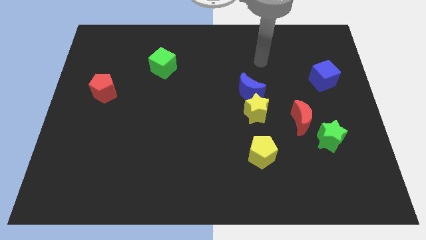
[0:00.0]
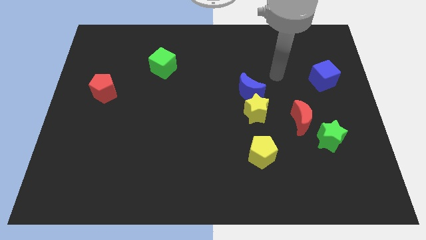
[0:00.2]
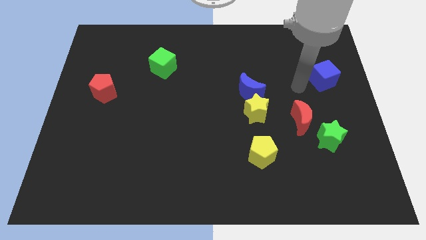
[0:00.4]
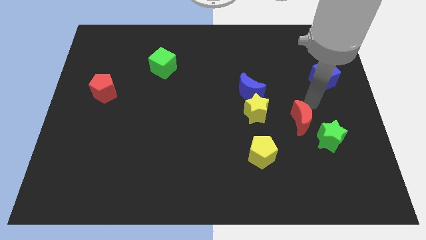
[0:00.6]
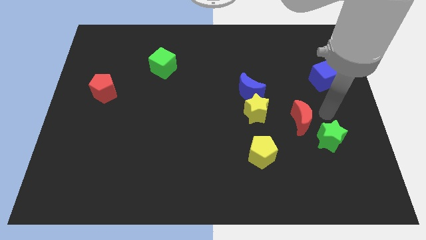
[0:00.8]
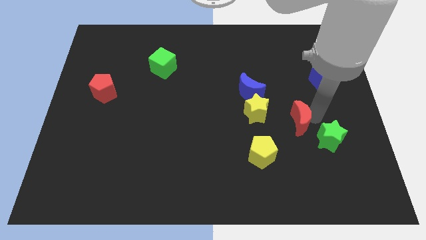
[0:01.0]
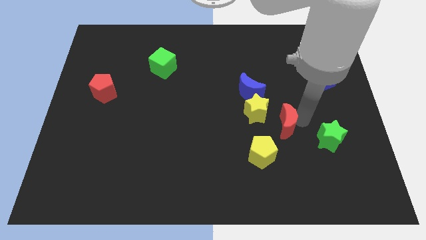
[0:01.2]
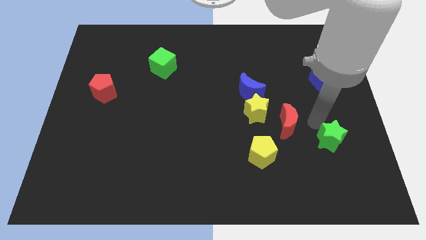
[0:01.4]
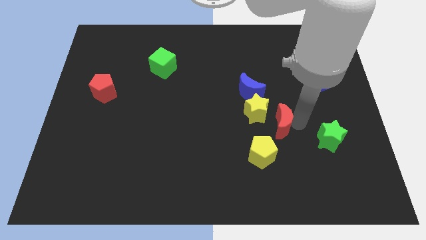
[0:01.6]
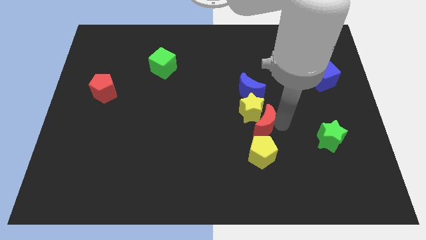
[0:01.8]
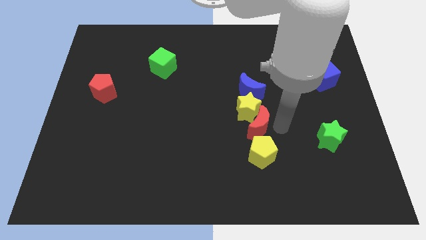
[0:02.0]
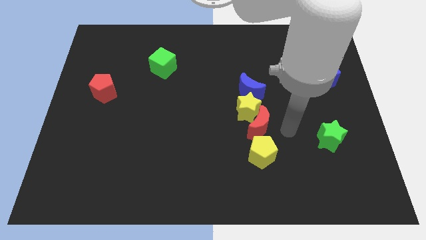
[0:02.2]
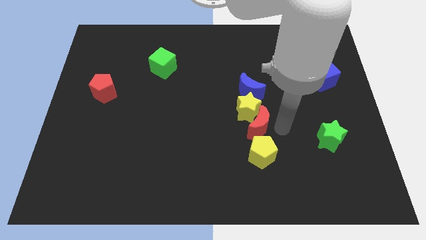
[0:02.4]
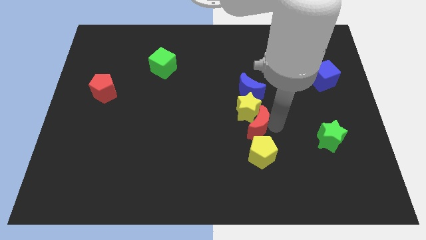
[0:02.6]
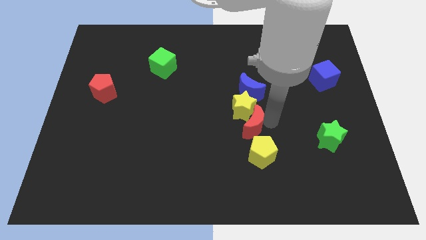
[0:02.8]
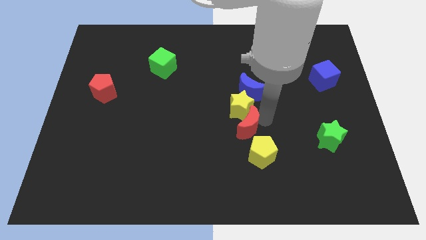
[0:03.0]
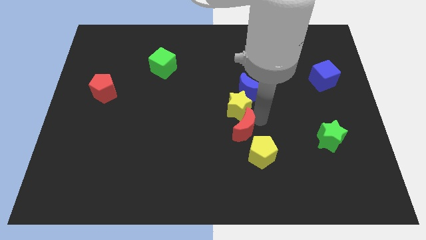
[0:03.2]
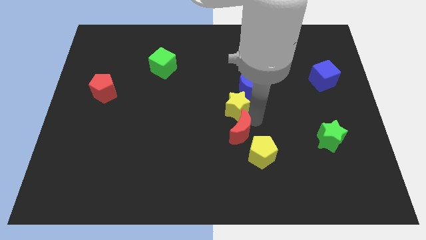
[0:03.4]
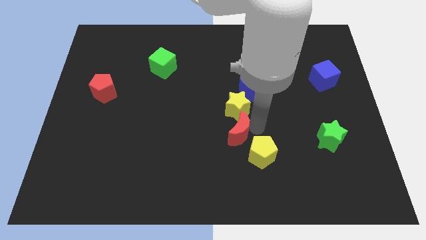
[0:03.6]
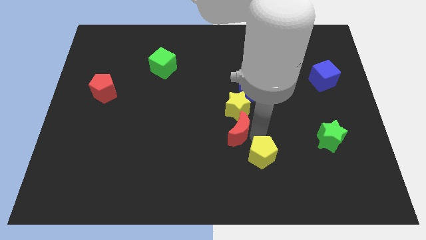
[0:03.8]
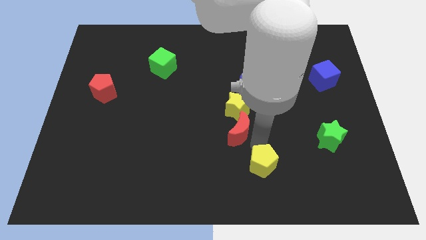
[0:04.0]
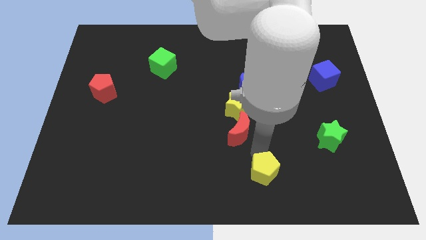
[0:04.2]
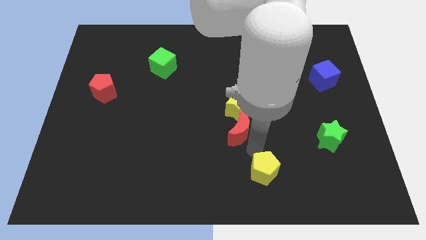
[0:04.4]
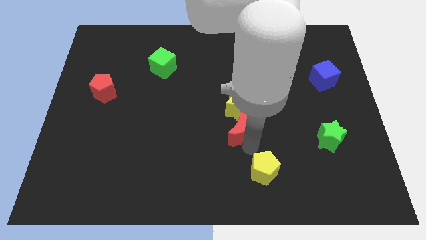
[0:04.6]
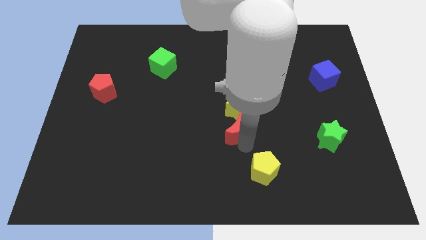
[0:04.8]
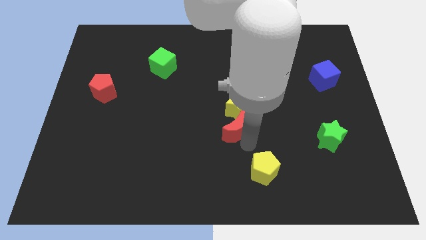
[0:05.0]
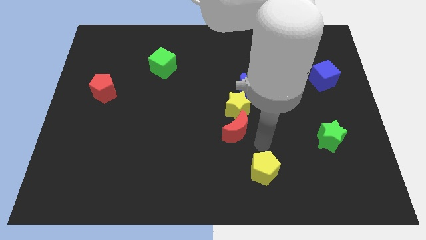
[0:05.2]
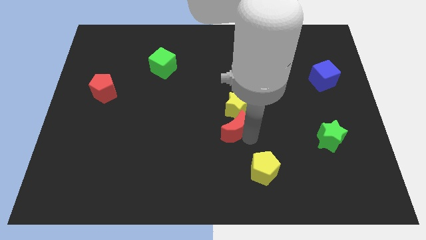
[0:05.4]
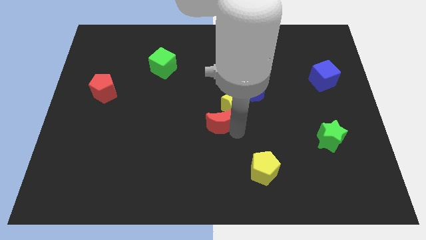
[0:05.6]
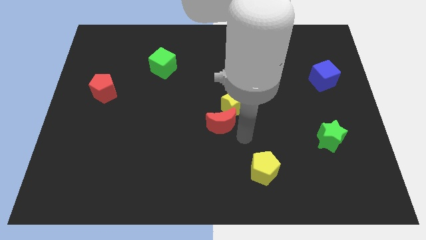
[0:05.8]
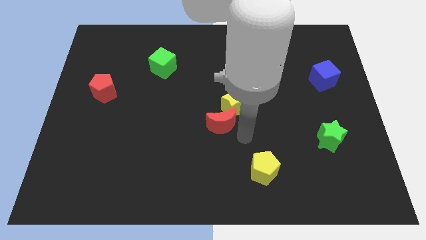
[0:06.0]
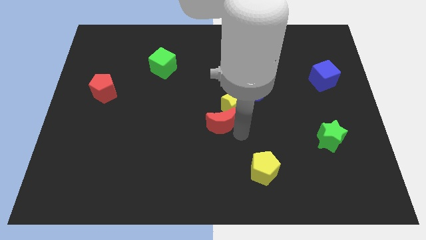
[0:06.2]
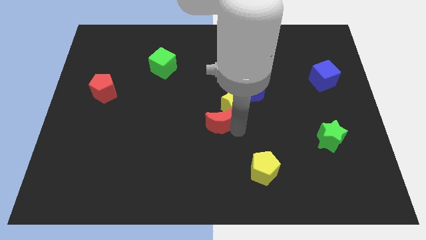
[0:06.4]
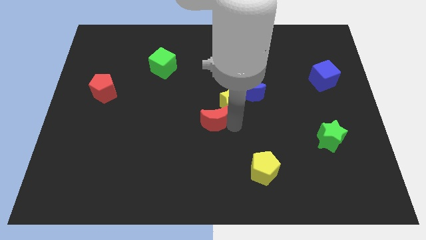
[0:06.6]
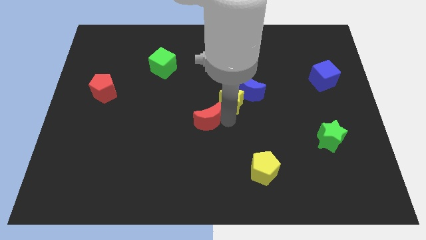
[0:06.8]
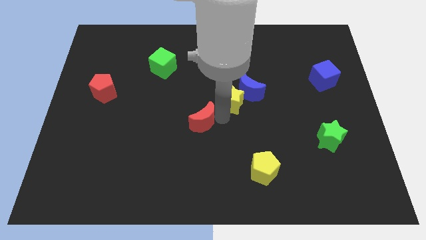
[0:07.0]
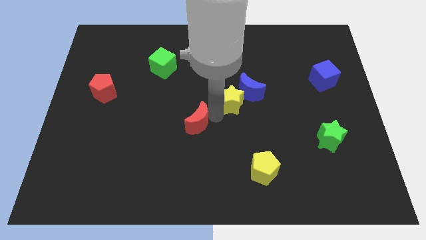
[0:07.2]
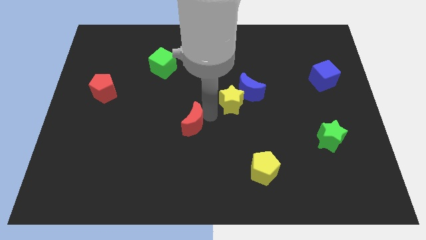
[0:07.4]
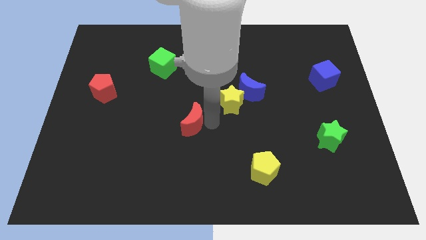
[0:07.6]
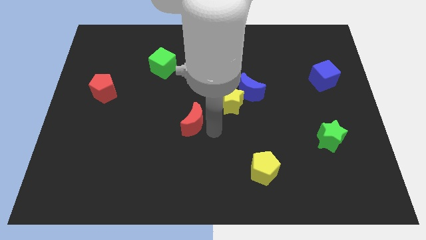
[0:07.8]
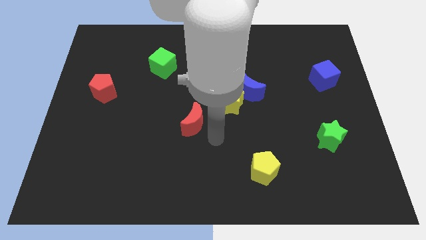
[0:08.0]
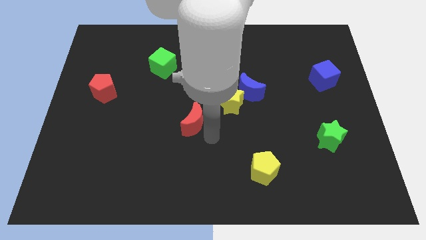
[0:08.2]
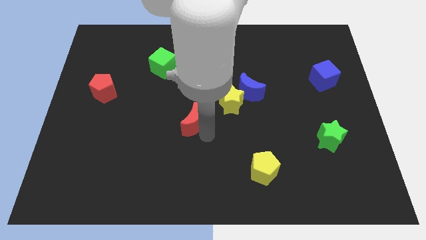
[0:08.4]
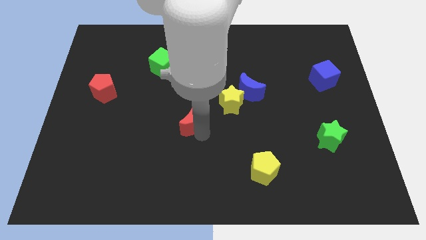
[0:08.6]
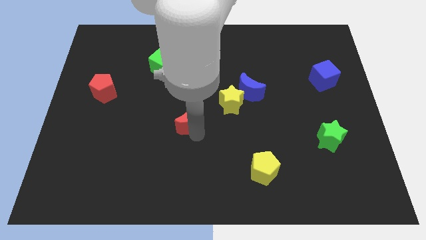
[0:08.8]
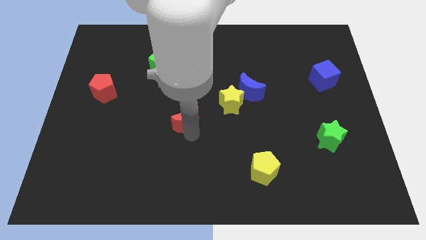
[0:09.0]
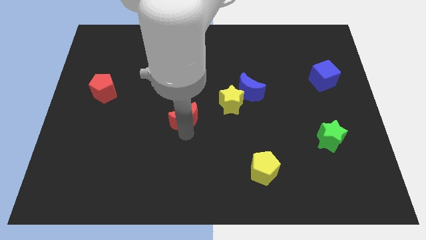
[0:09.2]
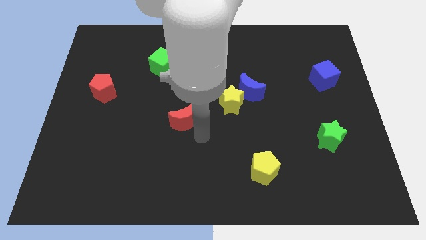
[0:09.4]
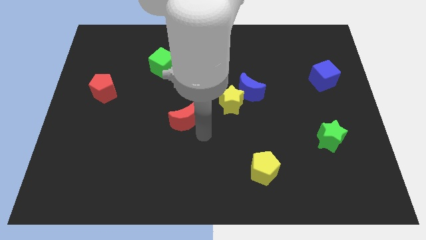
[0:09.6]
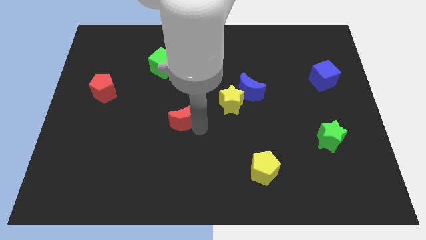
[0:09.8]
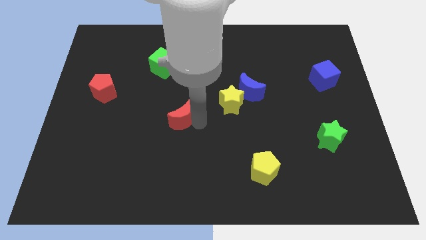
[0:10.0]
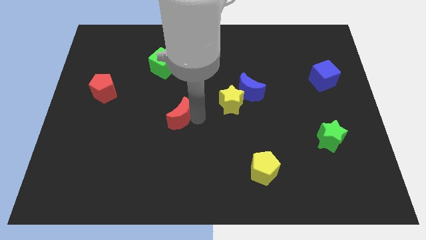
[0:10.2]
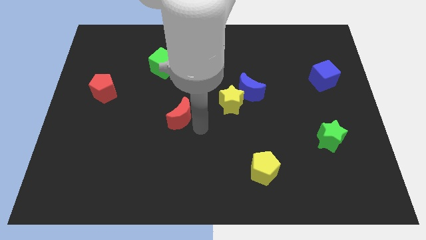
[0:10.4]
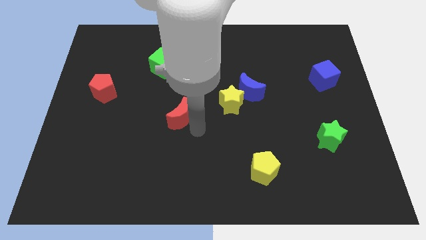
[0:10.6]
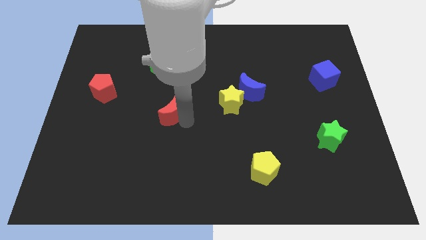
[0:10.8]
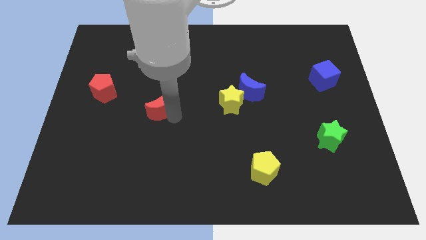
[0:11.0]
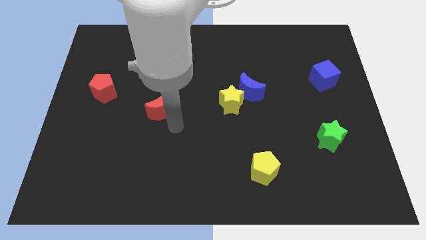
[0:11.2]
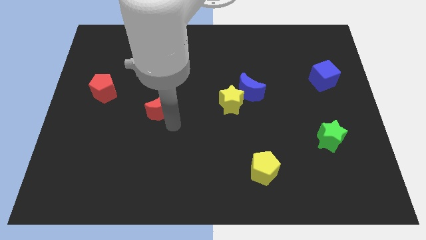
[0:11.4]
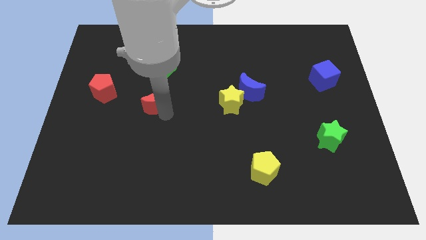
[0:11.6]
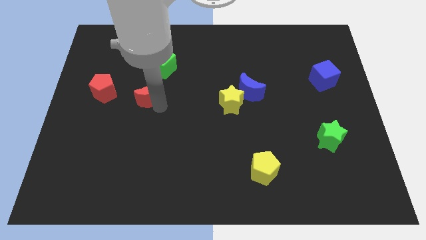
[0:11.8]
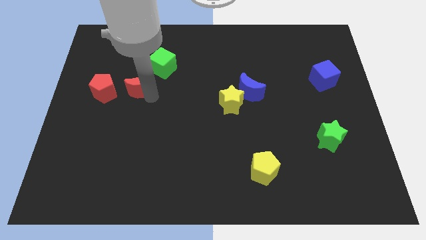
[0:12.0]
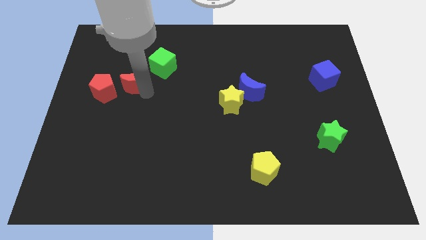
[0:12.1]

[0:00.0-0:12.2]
move the red moon to the top right of the red pentagon

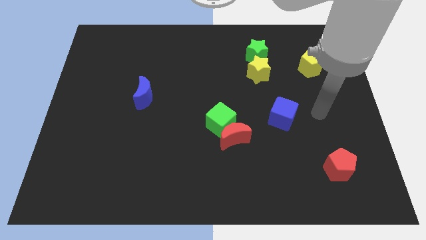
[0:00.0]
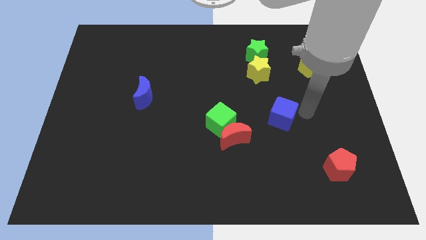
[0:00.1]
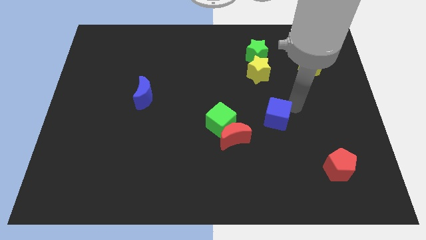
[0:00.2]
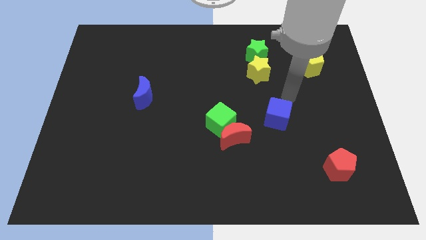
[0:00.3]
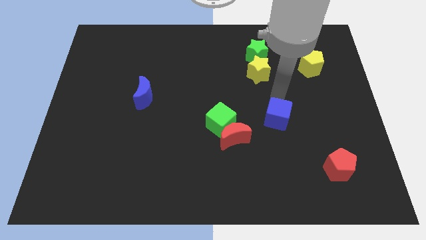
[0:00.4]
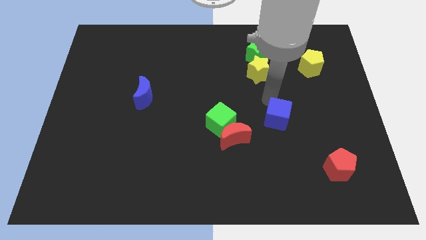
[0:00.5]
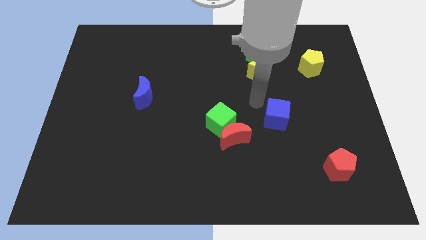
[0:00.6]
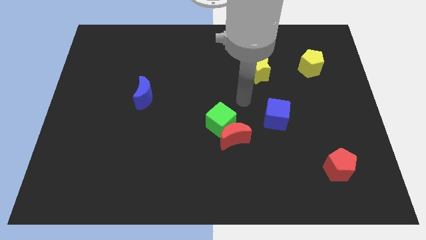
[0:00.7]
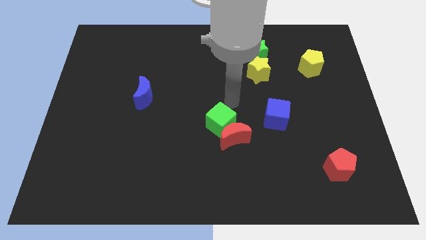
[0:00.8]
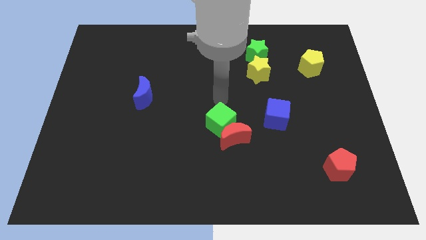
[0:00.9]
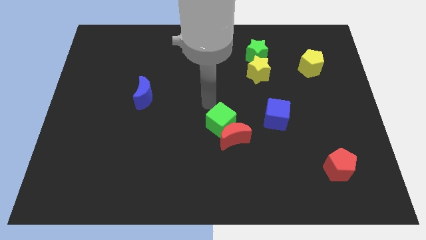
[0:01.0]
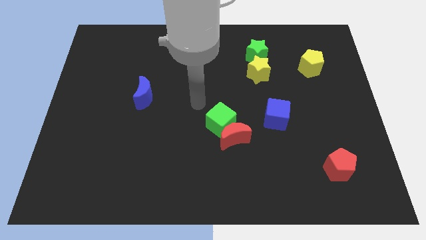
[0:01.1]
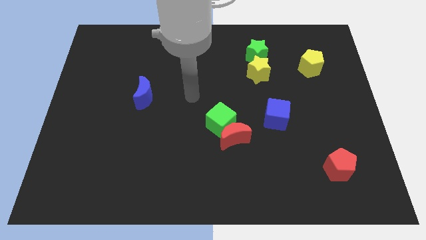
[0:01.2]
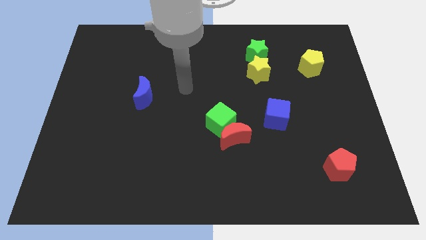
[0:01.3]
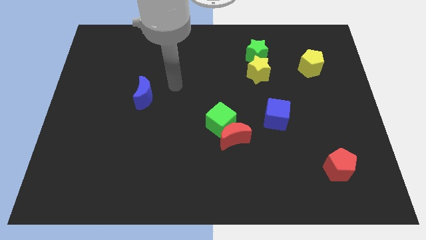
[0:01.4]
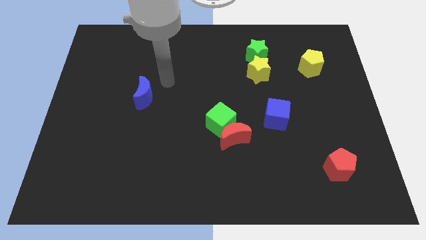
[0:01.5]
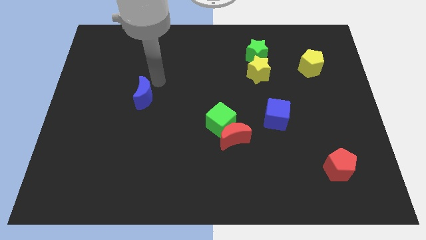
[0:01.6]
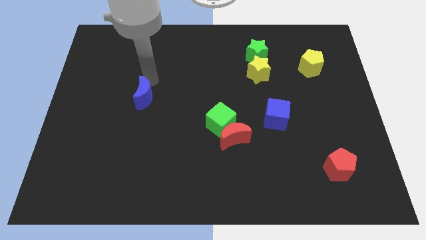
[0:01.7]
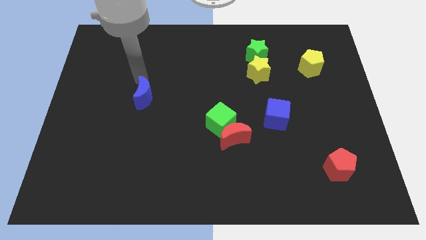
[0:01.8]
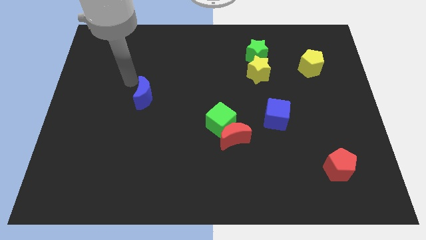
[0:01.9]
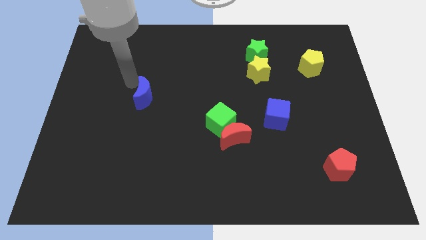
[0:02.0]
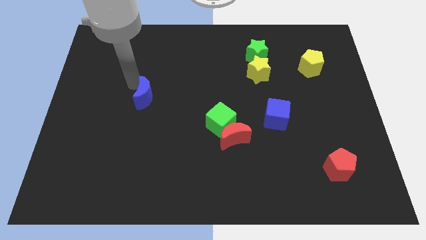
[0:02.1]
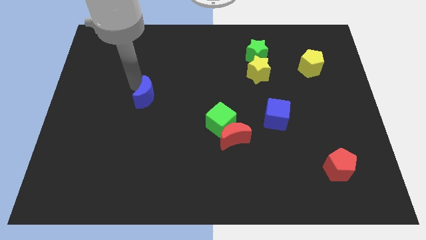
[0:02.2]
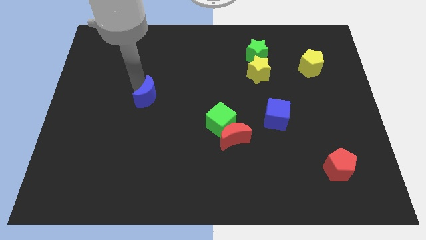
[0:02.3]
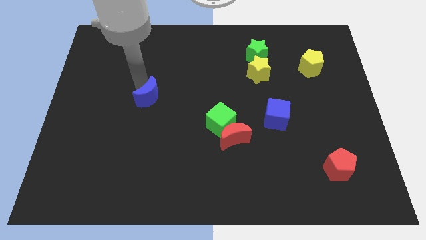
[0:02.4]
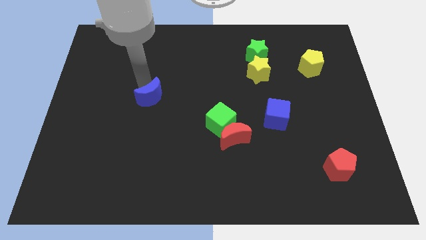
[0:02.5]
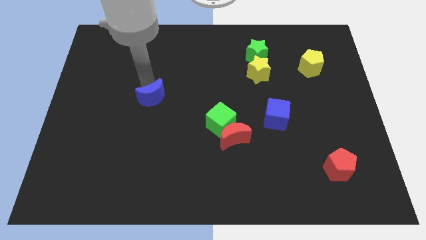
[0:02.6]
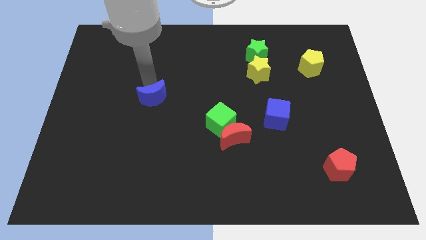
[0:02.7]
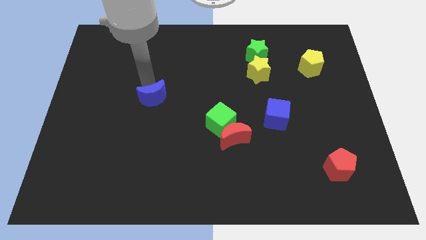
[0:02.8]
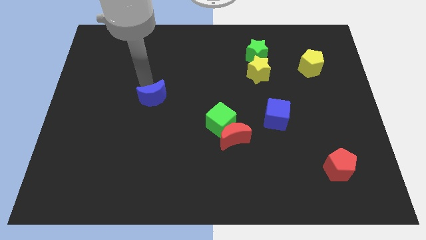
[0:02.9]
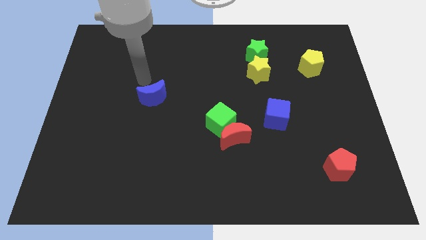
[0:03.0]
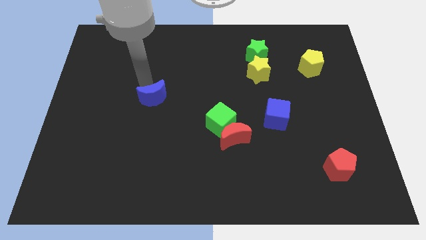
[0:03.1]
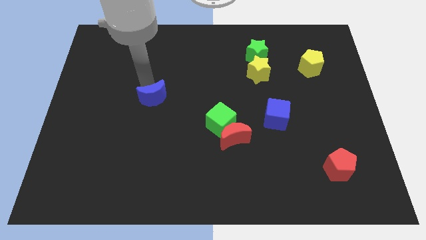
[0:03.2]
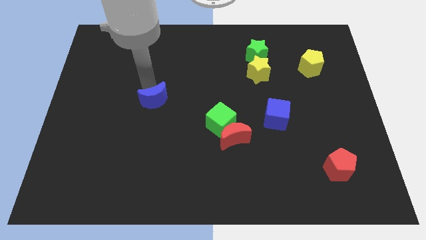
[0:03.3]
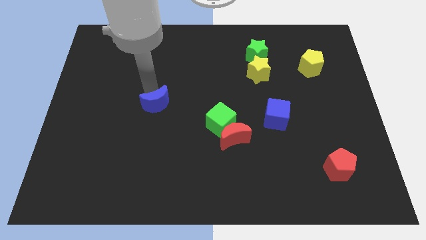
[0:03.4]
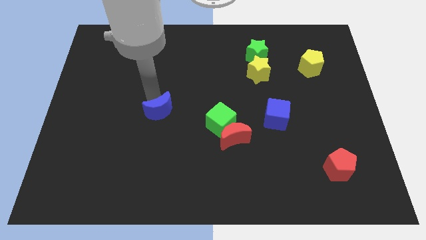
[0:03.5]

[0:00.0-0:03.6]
put the blue moon left of the green cube
